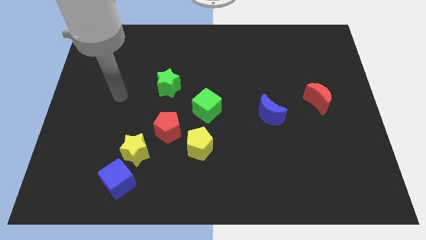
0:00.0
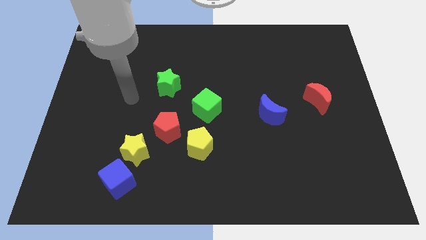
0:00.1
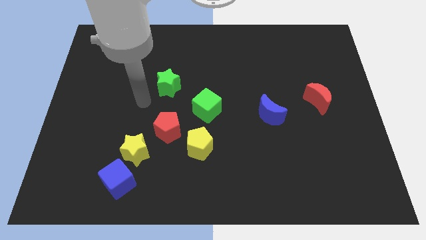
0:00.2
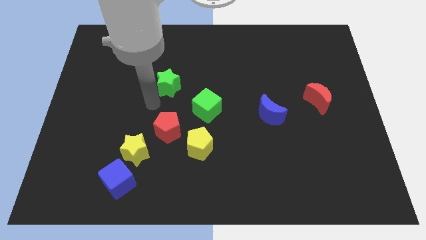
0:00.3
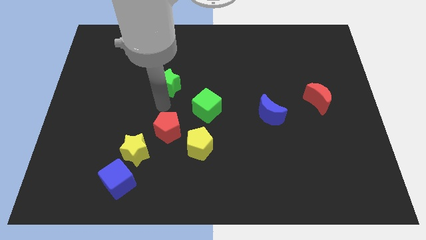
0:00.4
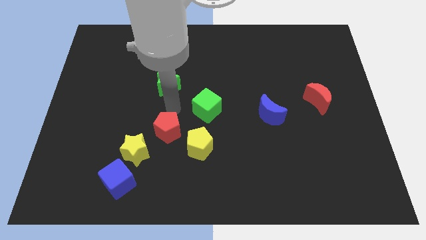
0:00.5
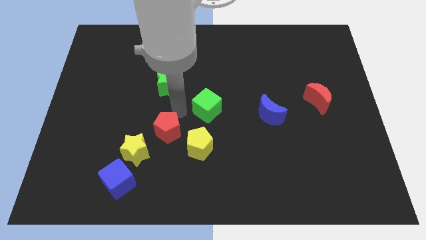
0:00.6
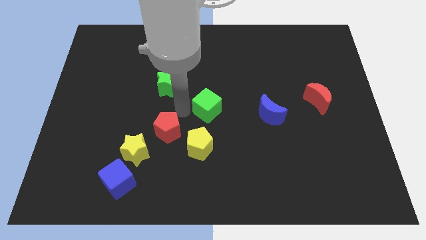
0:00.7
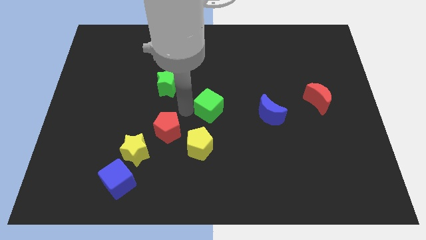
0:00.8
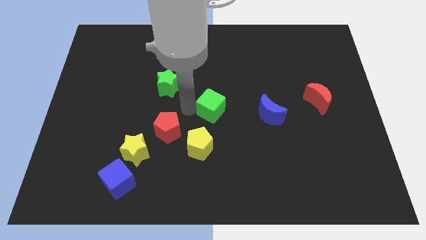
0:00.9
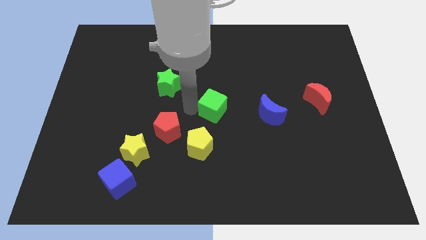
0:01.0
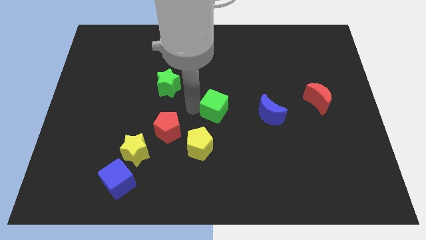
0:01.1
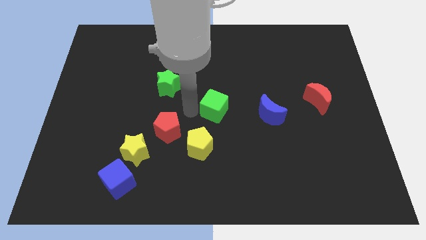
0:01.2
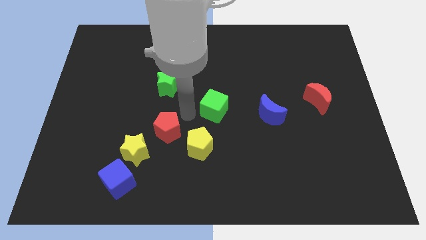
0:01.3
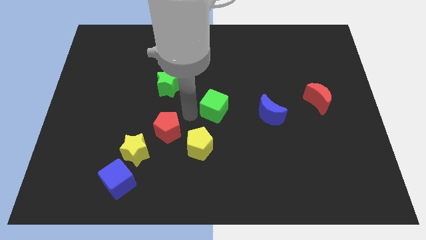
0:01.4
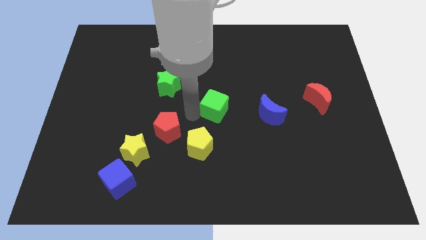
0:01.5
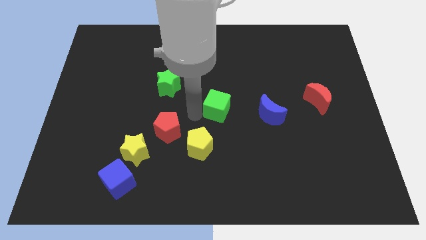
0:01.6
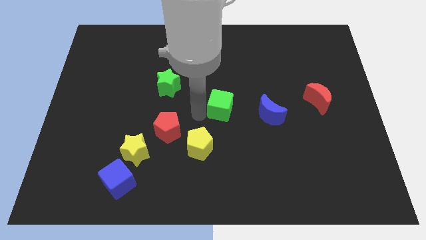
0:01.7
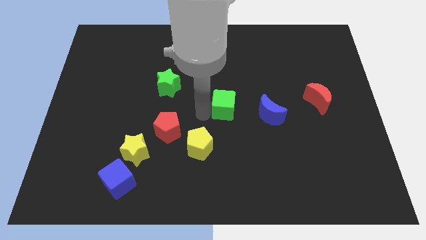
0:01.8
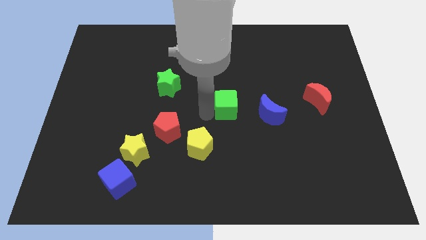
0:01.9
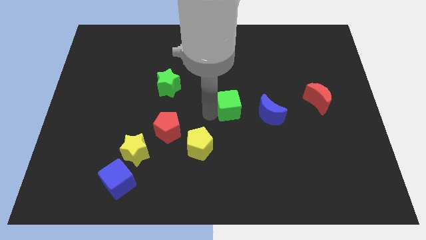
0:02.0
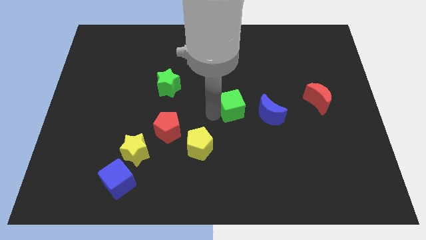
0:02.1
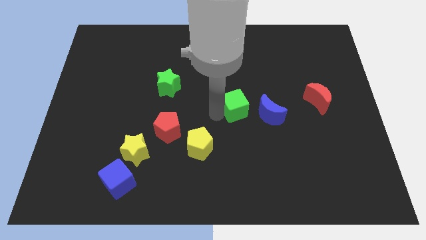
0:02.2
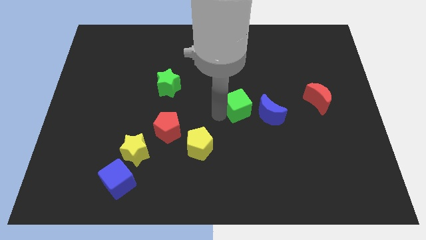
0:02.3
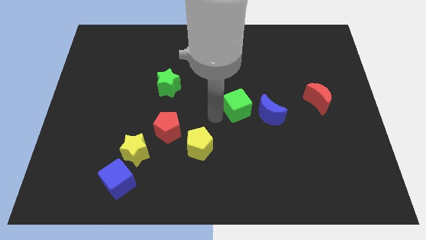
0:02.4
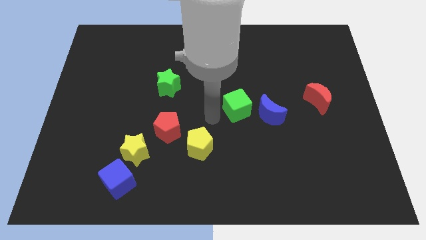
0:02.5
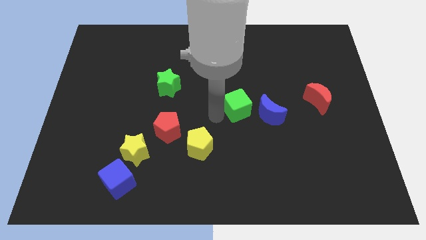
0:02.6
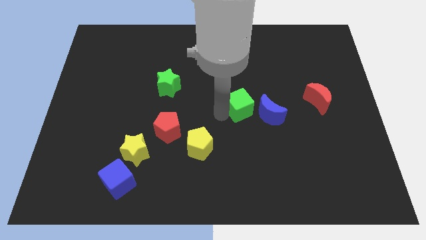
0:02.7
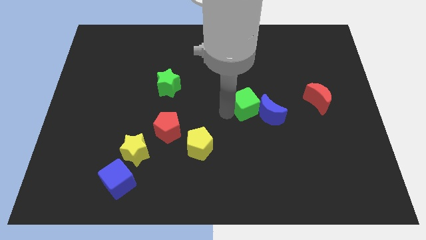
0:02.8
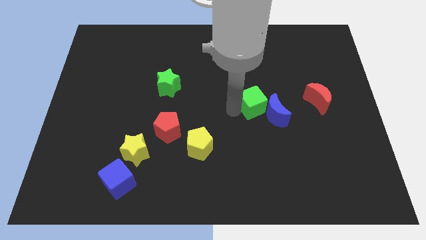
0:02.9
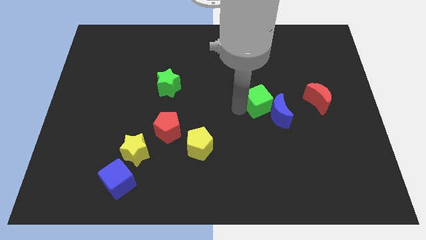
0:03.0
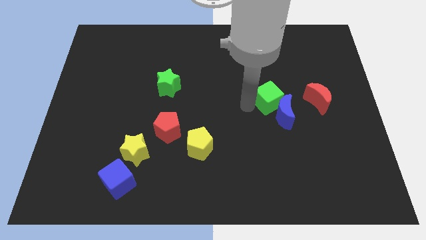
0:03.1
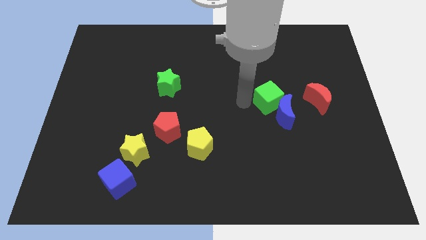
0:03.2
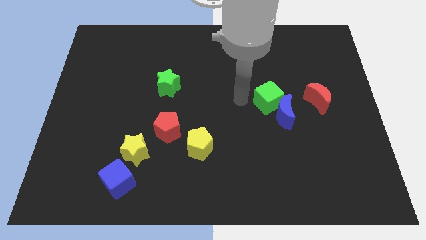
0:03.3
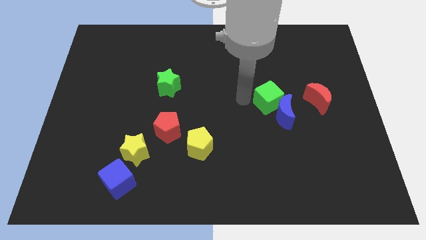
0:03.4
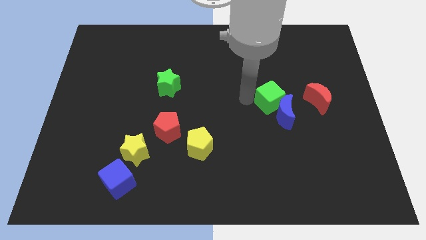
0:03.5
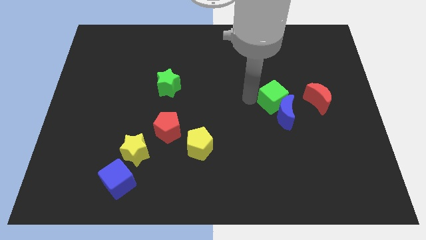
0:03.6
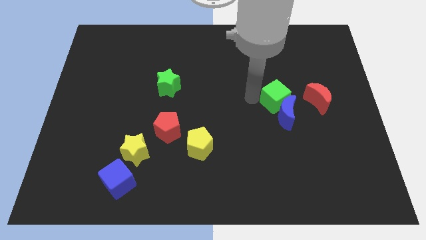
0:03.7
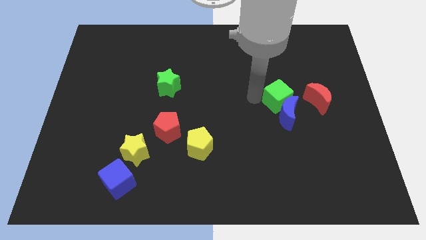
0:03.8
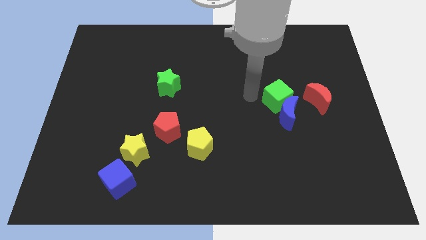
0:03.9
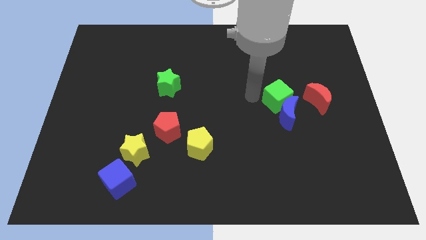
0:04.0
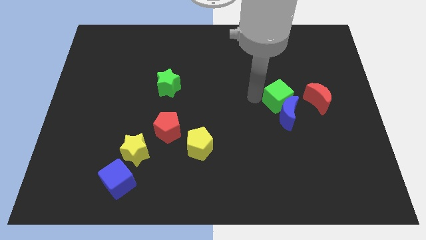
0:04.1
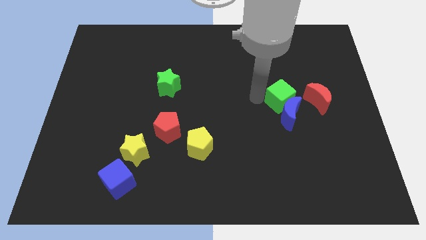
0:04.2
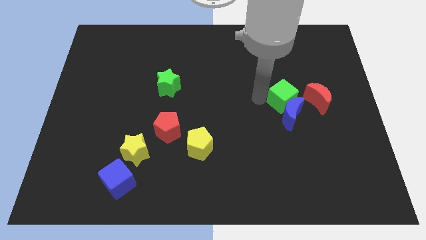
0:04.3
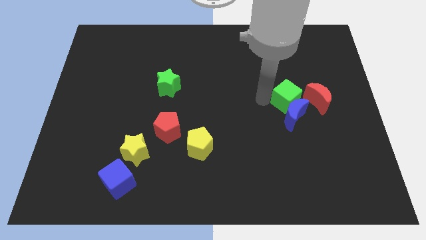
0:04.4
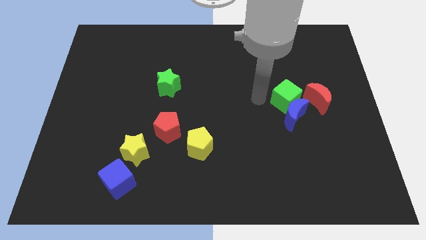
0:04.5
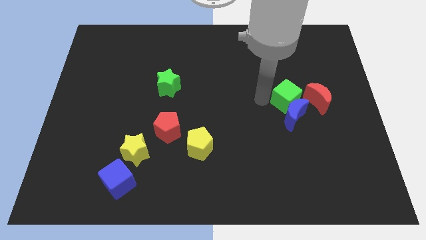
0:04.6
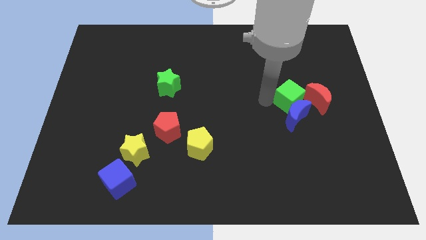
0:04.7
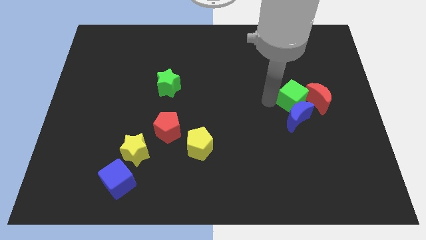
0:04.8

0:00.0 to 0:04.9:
push the green cube close to the red moon

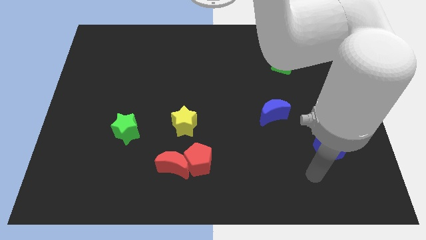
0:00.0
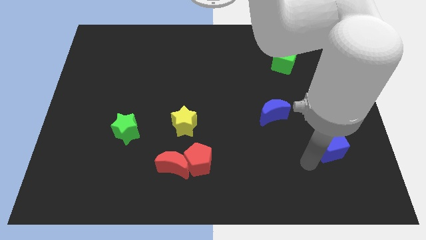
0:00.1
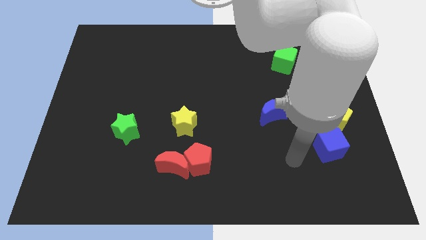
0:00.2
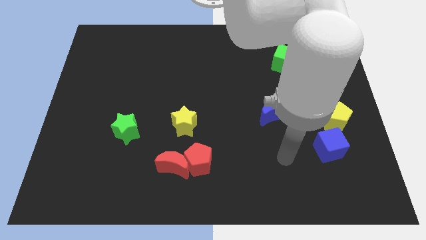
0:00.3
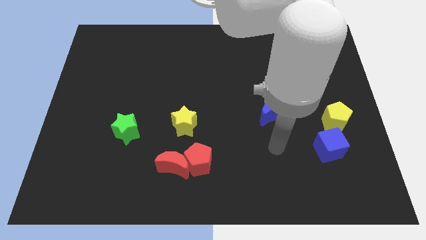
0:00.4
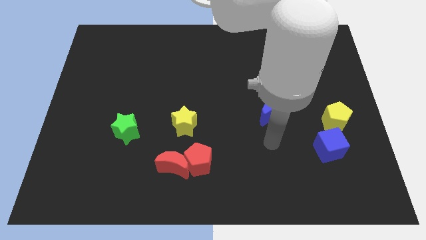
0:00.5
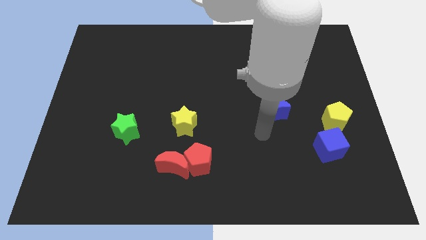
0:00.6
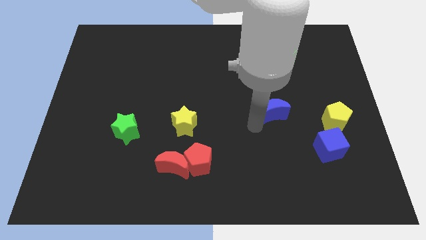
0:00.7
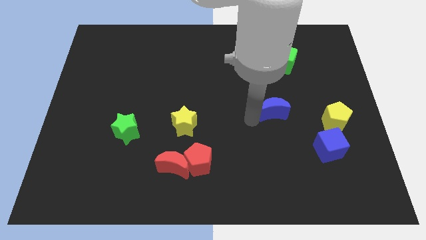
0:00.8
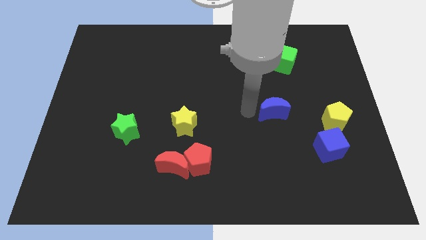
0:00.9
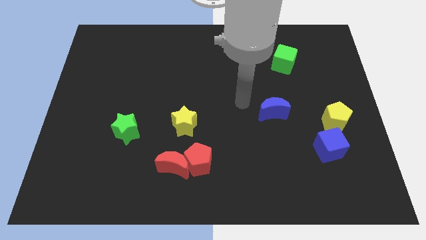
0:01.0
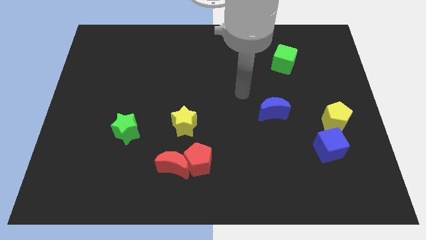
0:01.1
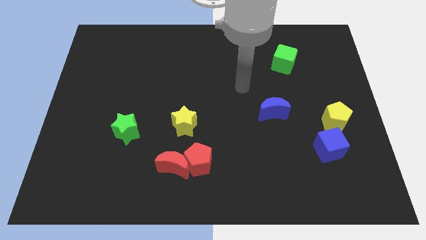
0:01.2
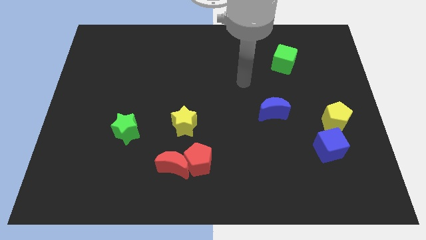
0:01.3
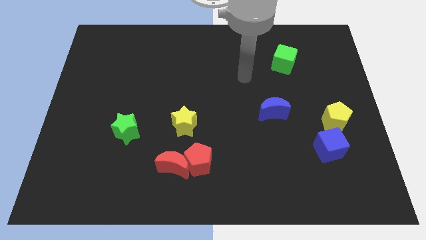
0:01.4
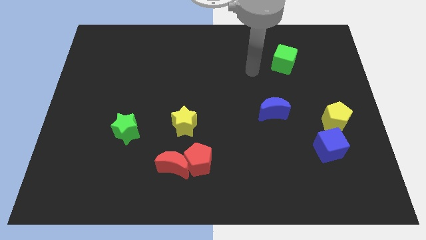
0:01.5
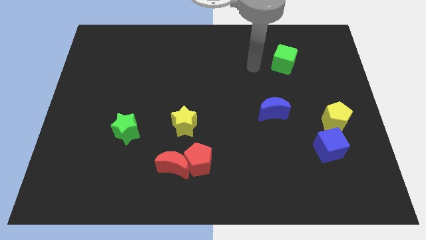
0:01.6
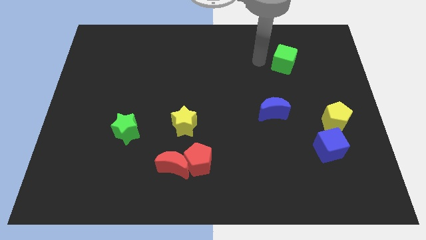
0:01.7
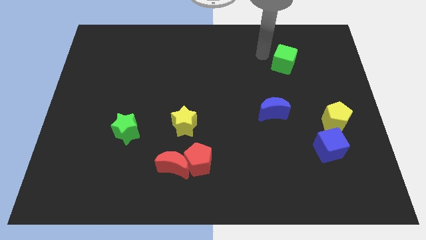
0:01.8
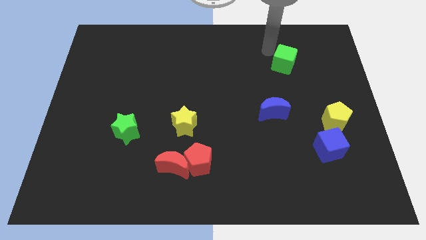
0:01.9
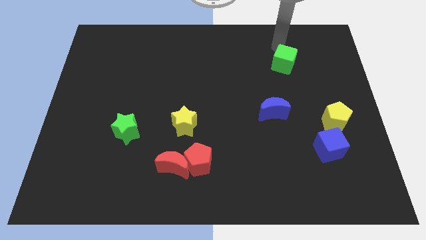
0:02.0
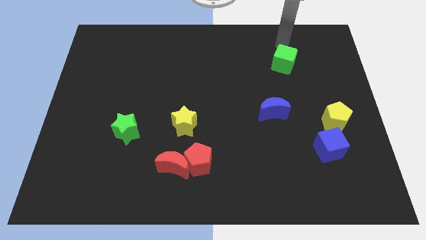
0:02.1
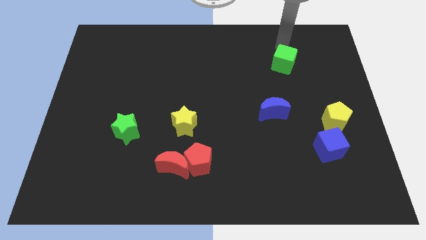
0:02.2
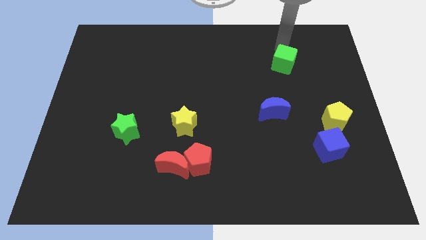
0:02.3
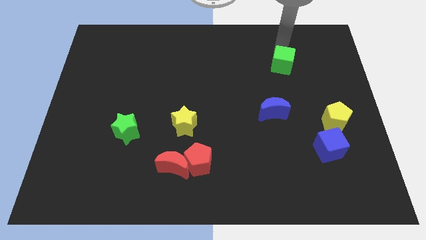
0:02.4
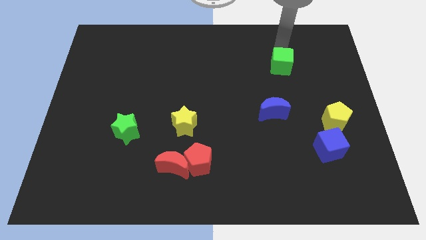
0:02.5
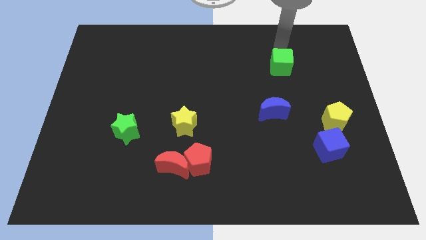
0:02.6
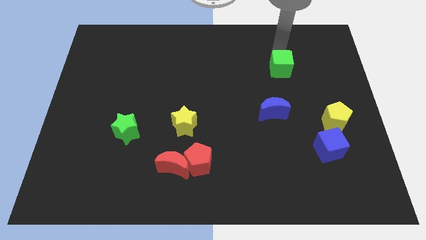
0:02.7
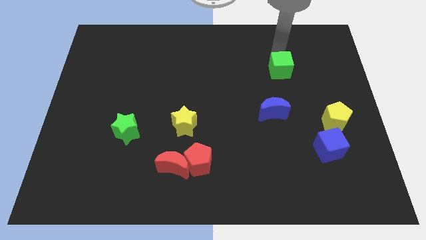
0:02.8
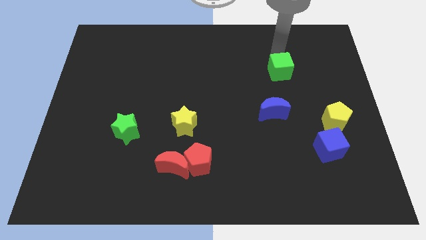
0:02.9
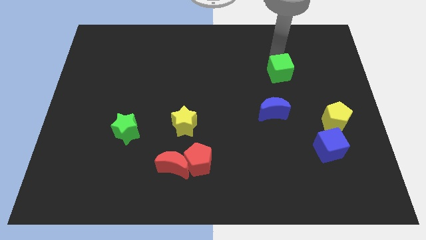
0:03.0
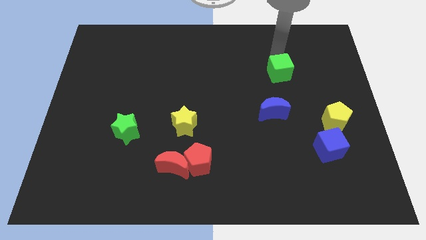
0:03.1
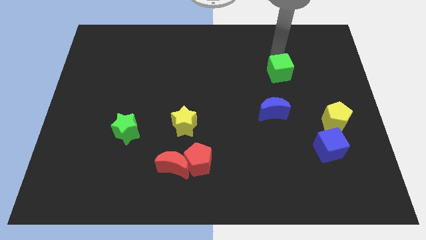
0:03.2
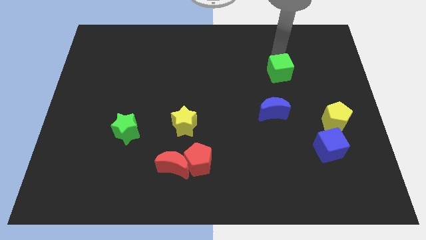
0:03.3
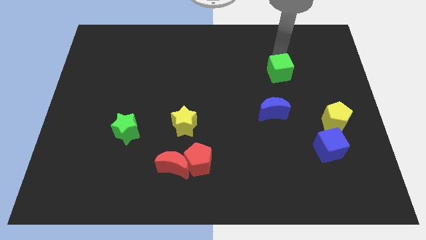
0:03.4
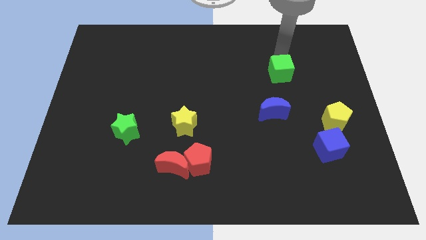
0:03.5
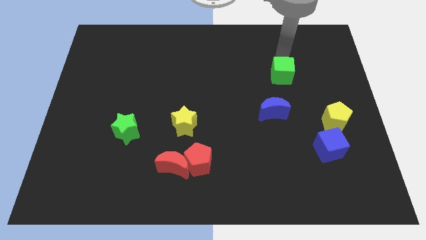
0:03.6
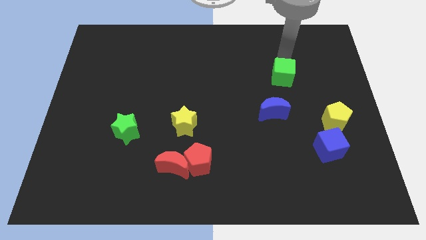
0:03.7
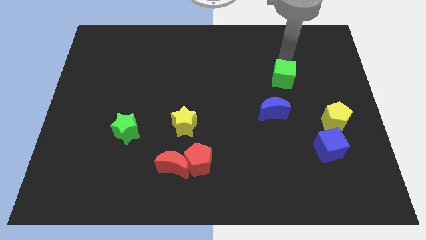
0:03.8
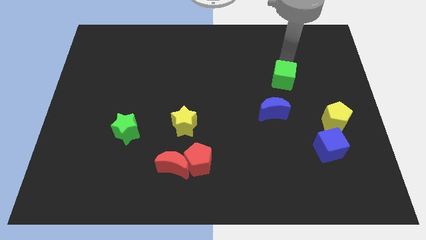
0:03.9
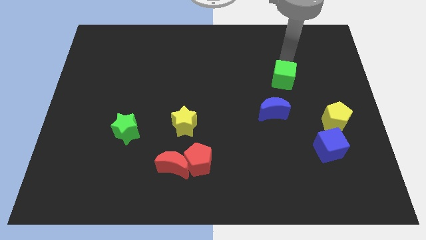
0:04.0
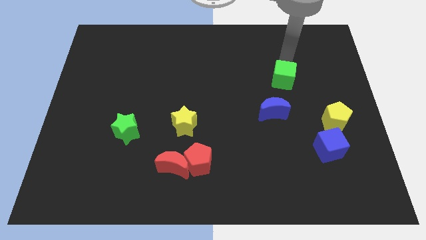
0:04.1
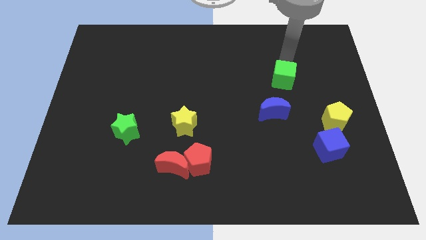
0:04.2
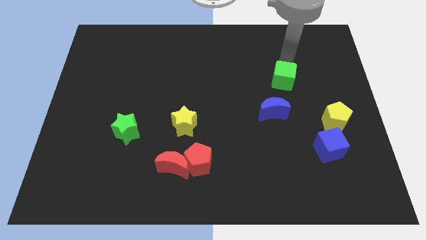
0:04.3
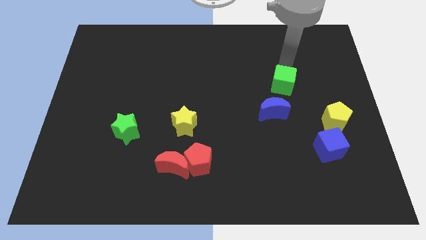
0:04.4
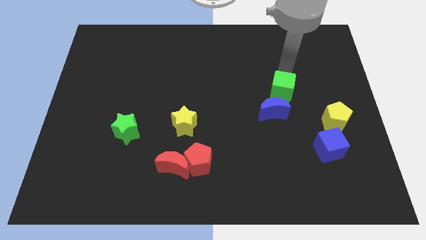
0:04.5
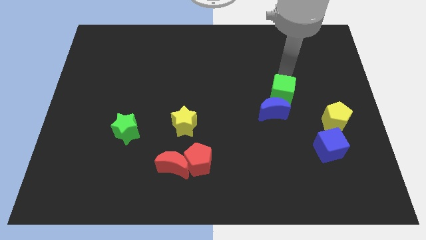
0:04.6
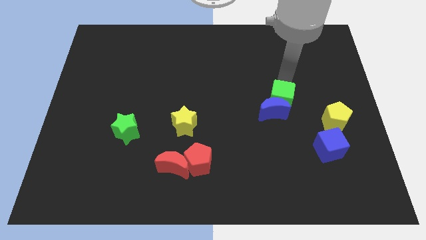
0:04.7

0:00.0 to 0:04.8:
put the green cube next to the blue moon
